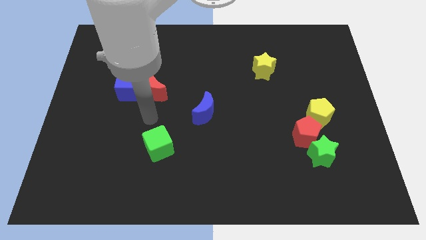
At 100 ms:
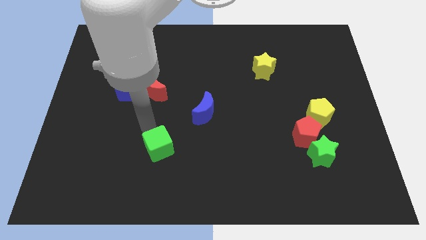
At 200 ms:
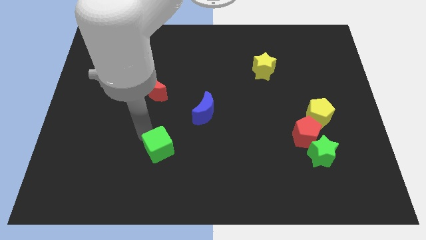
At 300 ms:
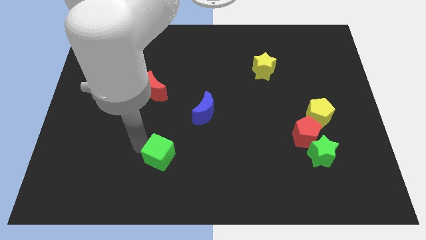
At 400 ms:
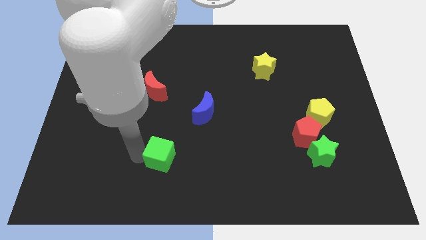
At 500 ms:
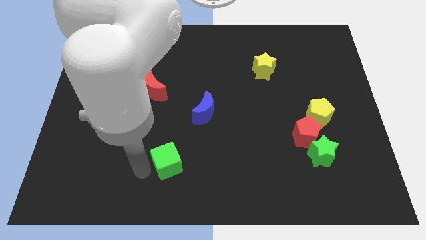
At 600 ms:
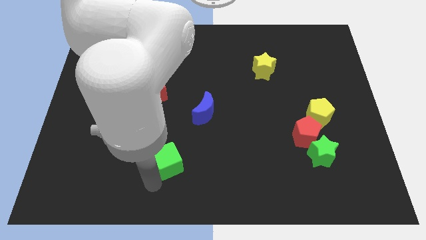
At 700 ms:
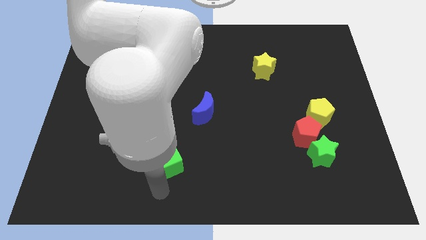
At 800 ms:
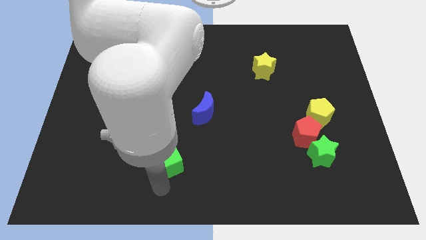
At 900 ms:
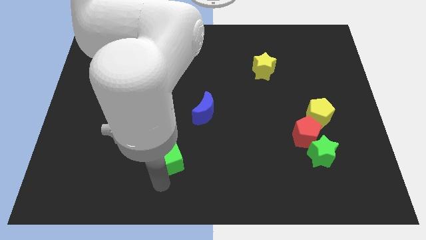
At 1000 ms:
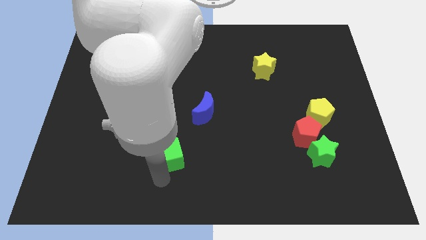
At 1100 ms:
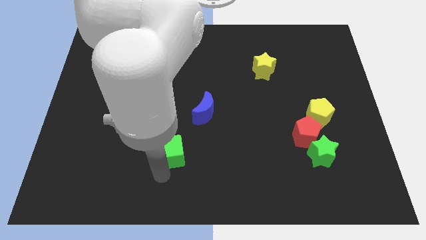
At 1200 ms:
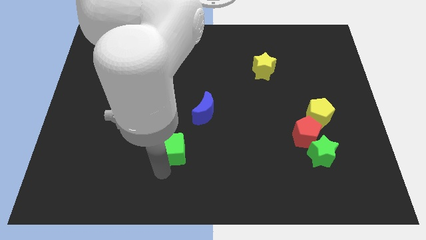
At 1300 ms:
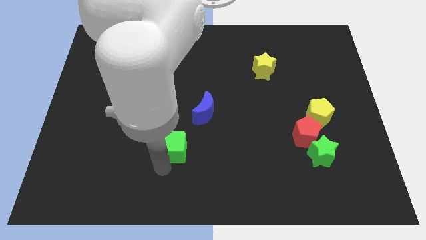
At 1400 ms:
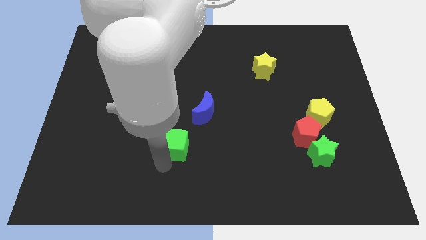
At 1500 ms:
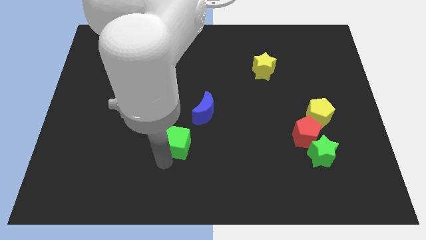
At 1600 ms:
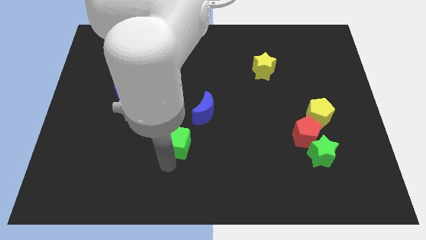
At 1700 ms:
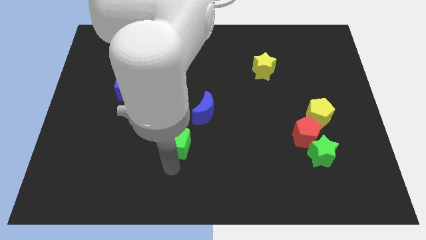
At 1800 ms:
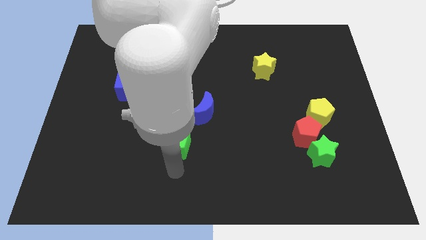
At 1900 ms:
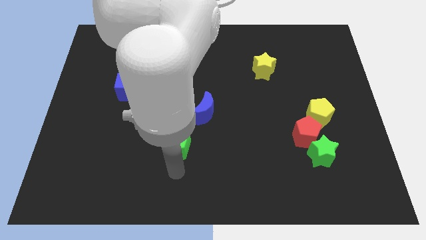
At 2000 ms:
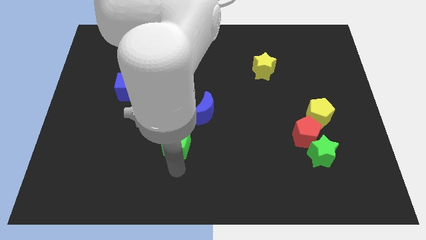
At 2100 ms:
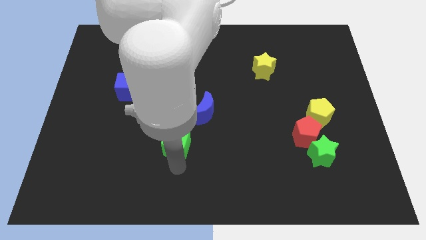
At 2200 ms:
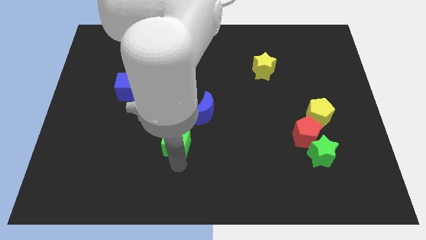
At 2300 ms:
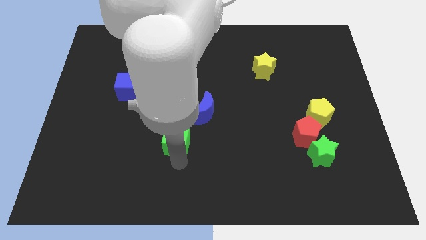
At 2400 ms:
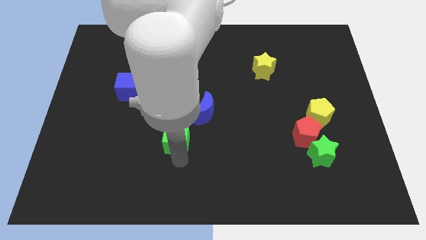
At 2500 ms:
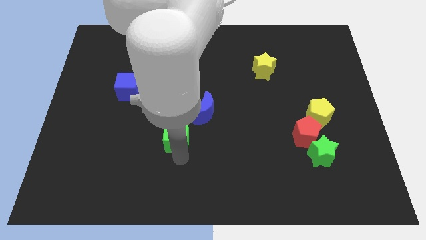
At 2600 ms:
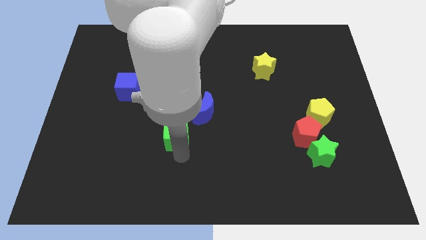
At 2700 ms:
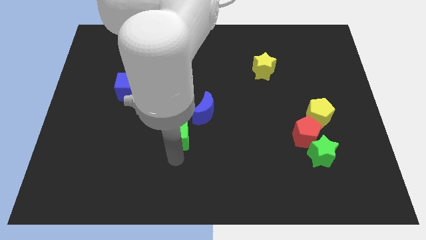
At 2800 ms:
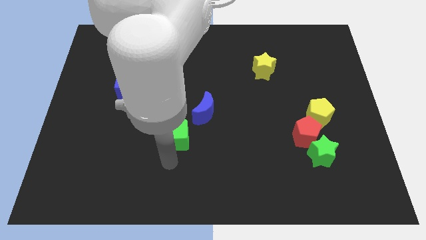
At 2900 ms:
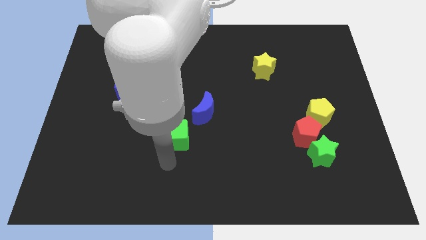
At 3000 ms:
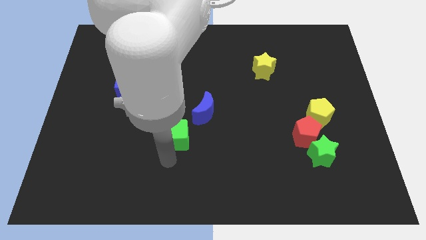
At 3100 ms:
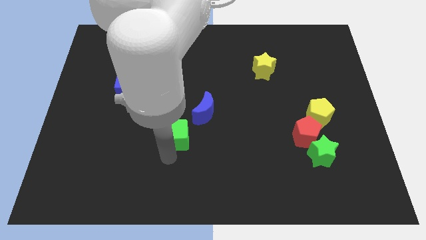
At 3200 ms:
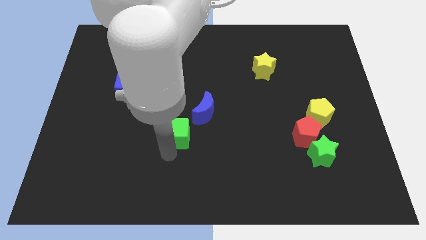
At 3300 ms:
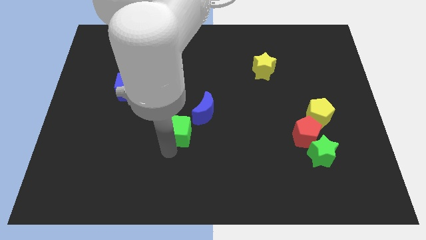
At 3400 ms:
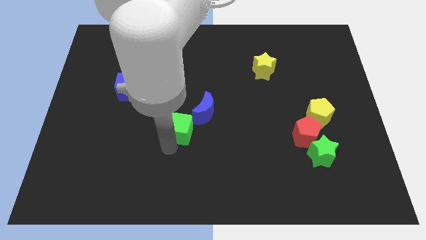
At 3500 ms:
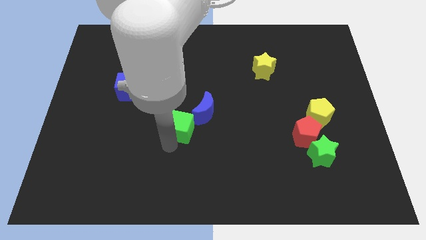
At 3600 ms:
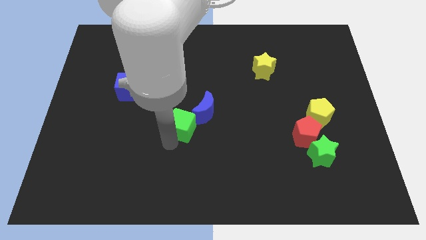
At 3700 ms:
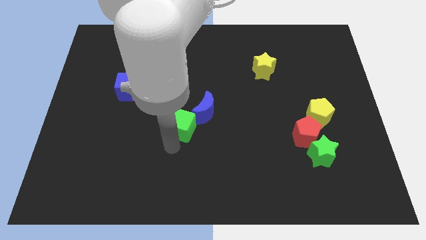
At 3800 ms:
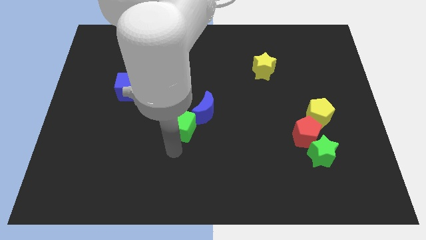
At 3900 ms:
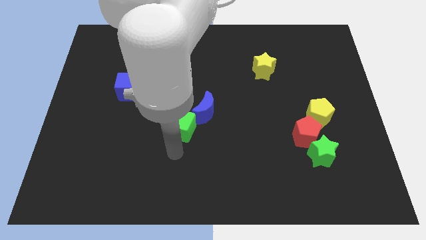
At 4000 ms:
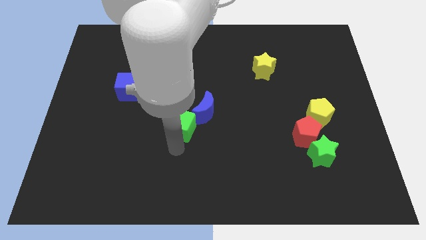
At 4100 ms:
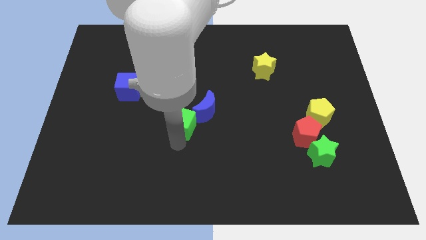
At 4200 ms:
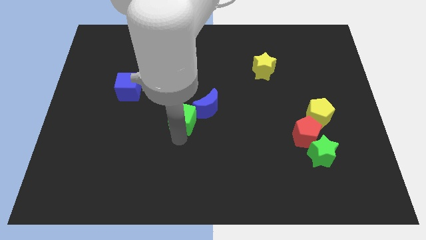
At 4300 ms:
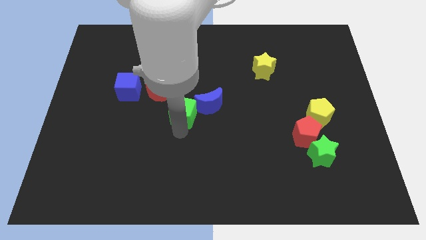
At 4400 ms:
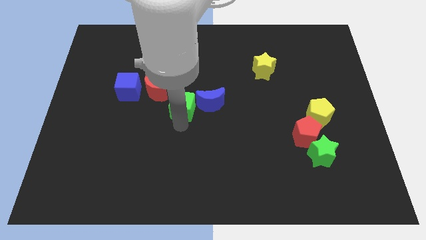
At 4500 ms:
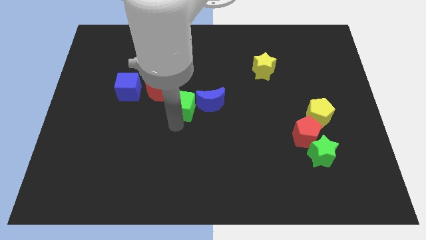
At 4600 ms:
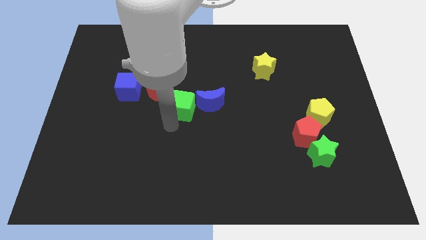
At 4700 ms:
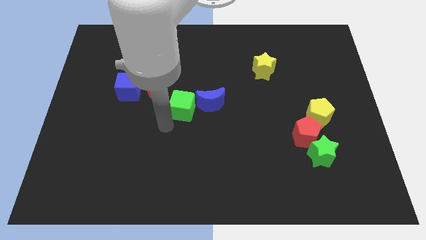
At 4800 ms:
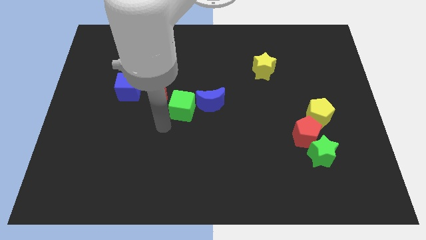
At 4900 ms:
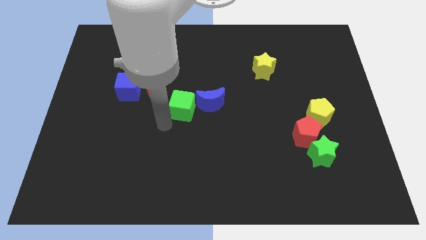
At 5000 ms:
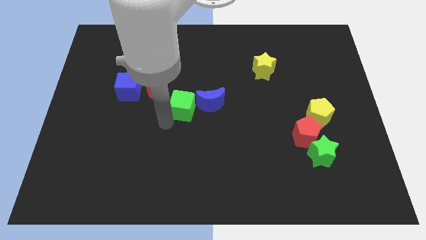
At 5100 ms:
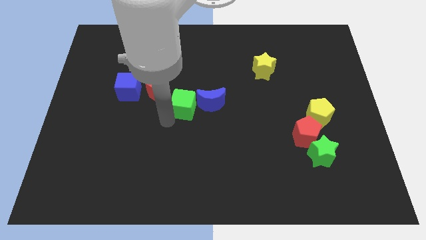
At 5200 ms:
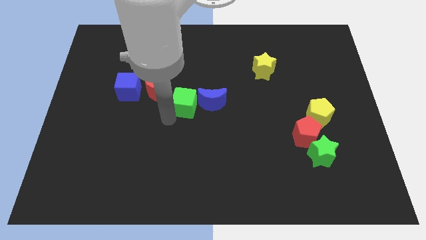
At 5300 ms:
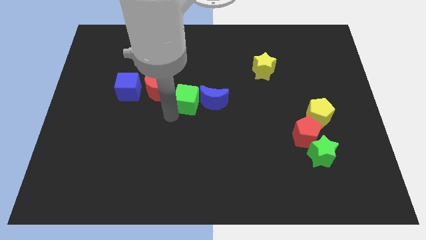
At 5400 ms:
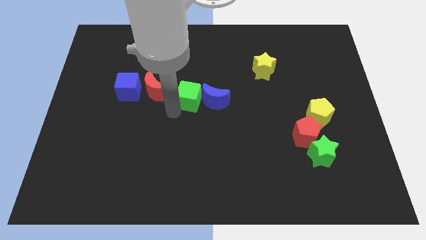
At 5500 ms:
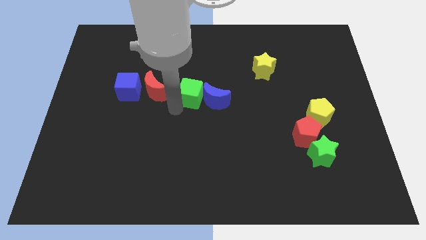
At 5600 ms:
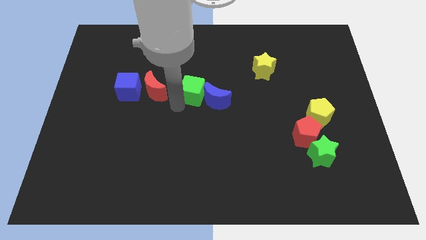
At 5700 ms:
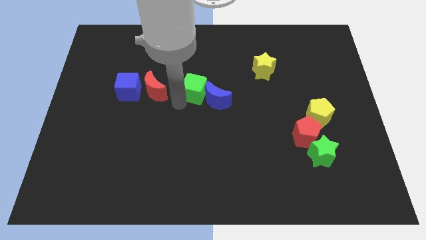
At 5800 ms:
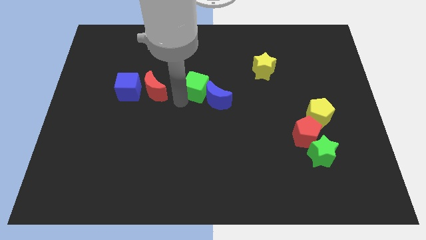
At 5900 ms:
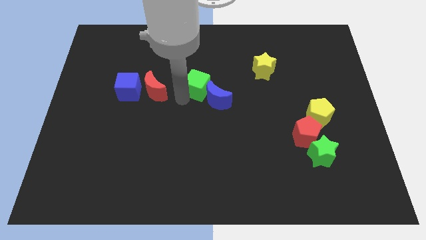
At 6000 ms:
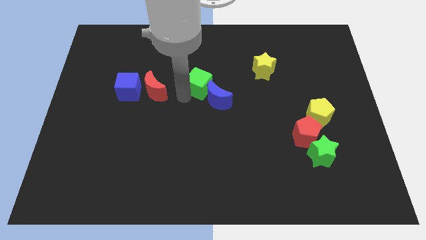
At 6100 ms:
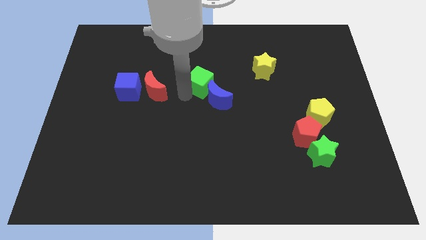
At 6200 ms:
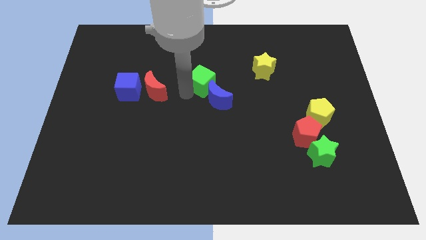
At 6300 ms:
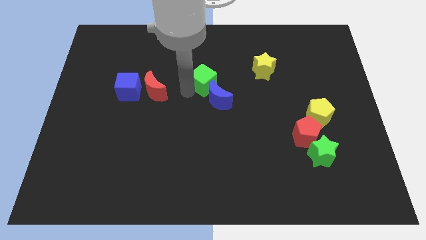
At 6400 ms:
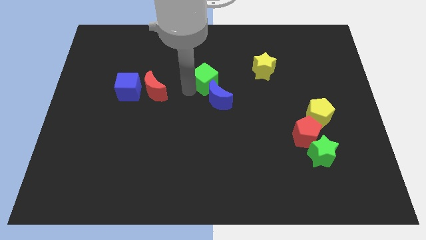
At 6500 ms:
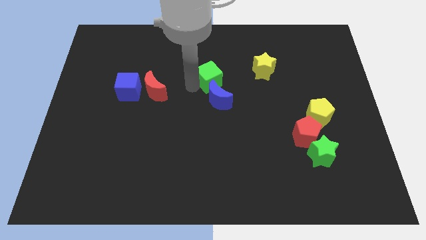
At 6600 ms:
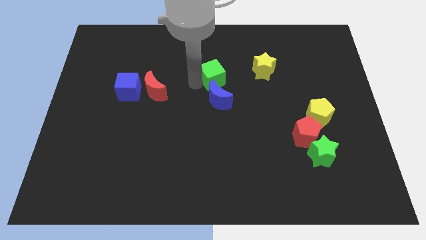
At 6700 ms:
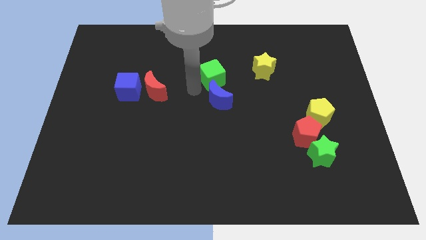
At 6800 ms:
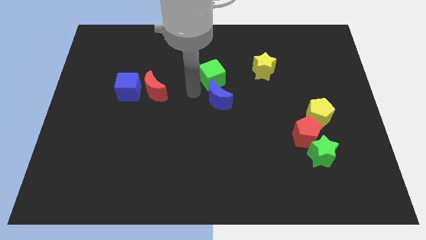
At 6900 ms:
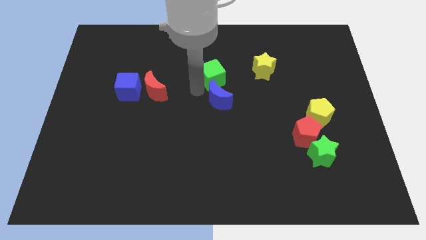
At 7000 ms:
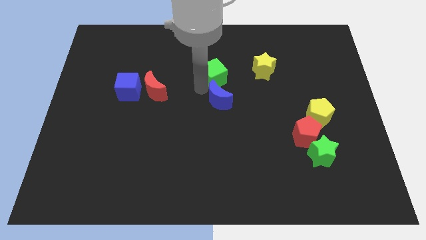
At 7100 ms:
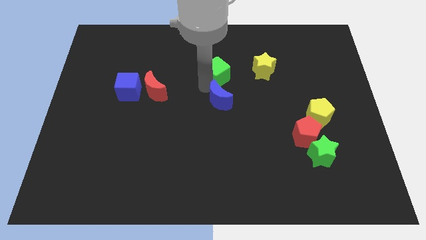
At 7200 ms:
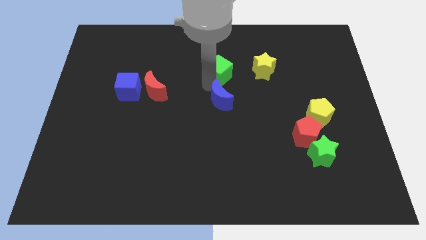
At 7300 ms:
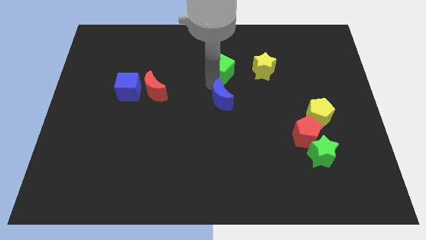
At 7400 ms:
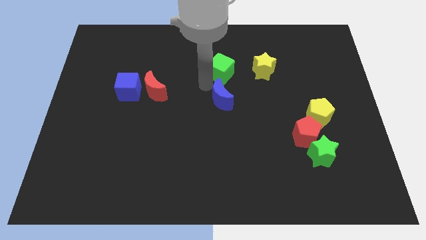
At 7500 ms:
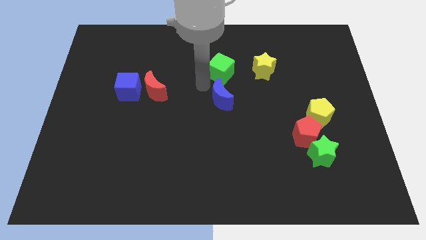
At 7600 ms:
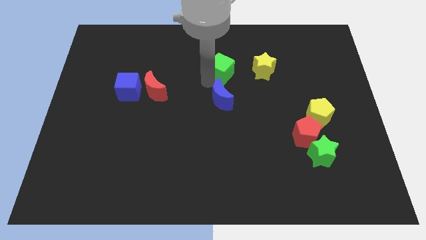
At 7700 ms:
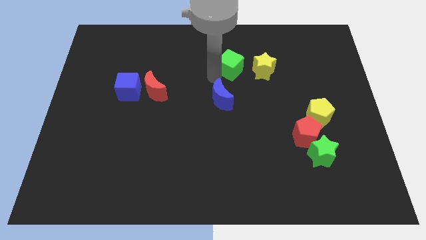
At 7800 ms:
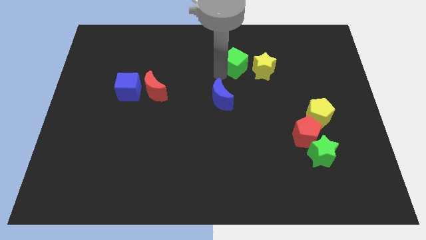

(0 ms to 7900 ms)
move the green cube diagonally up and to the left of the yellow star
